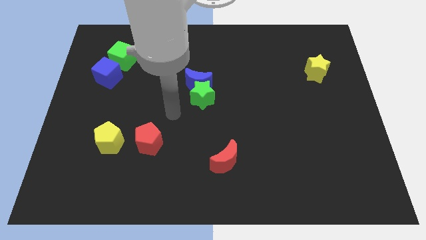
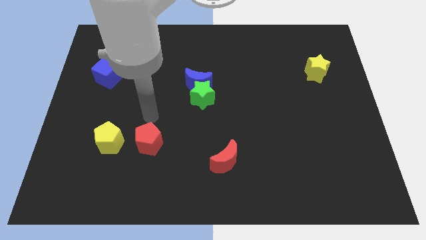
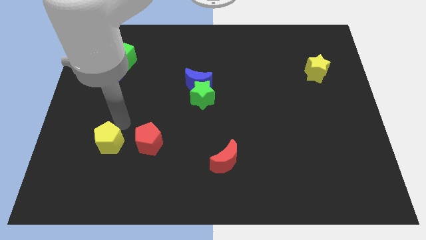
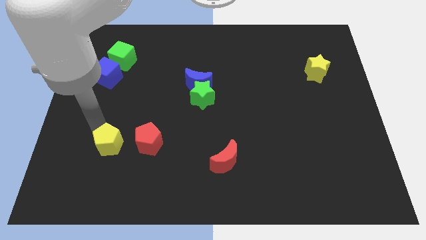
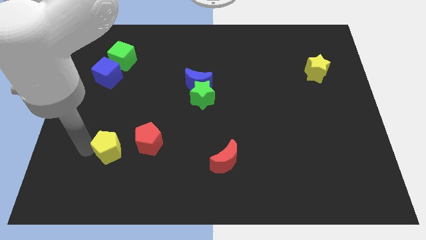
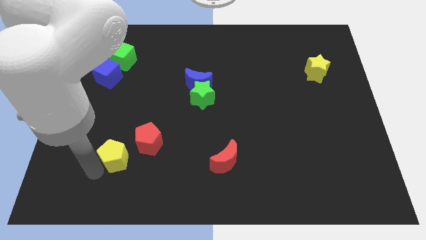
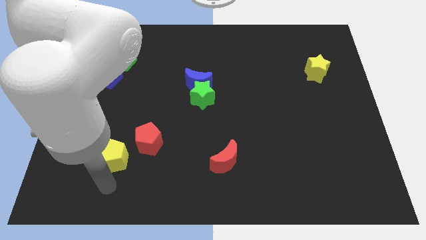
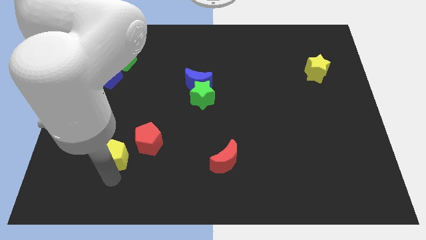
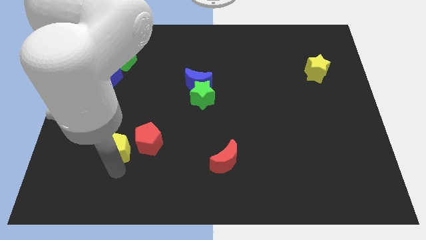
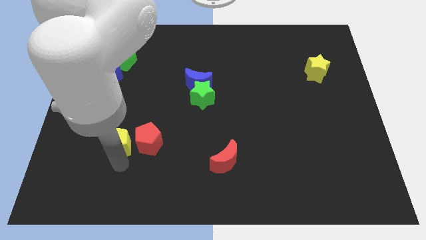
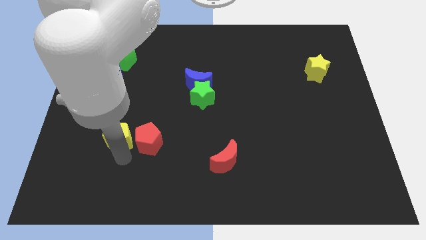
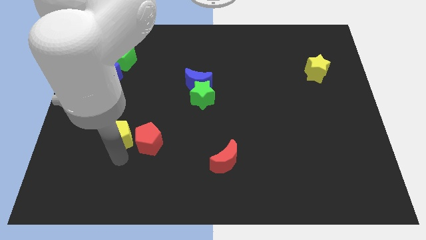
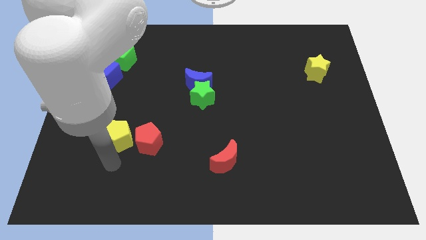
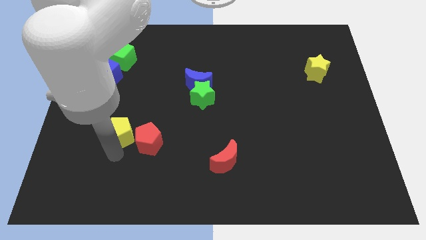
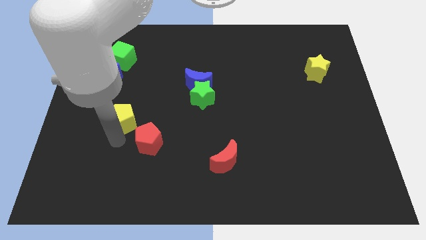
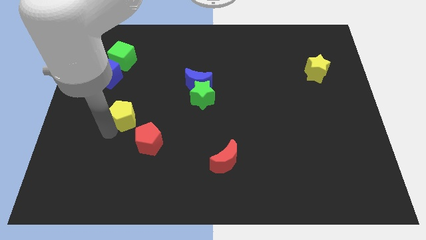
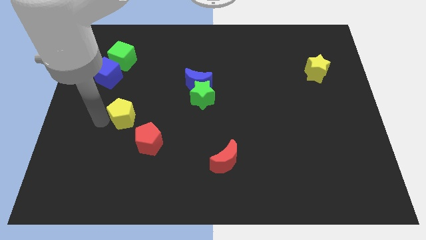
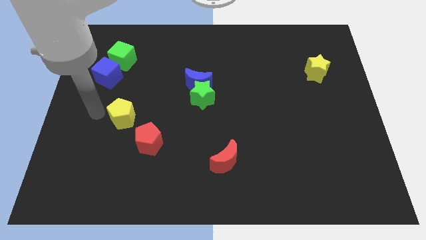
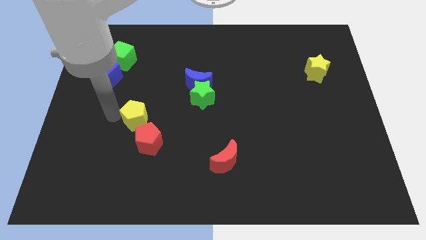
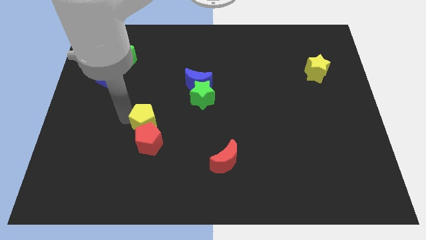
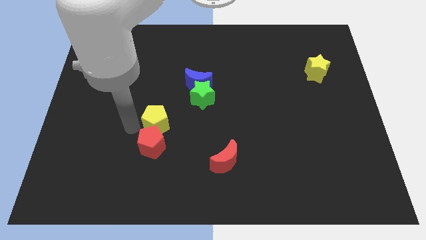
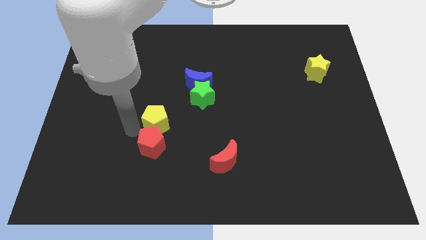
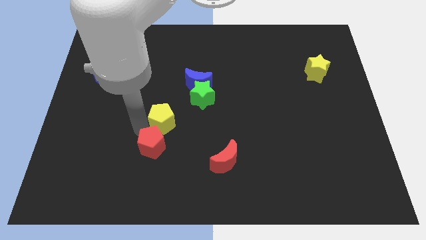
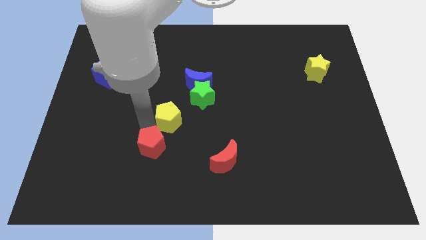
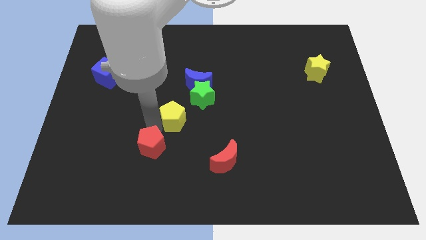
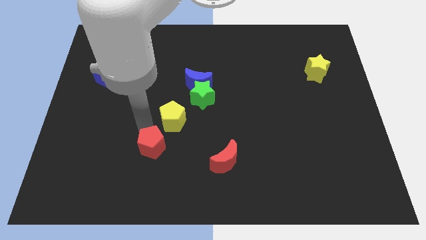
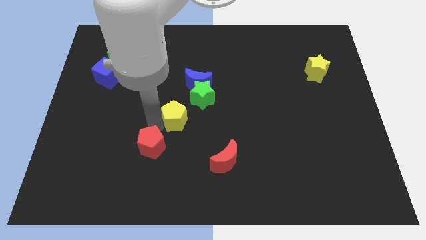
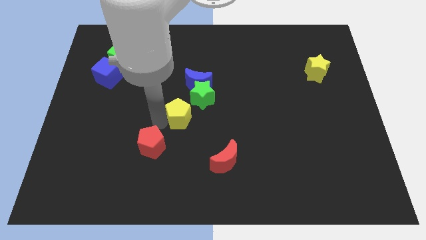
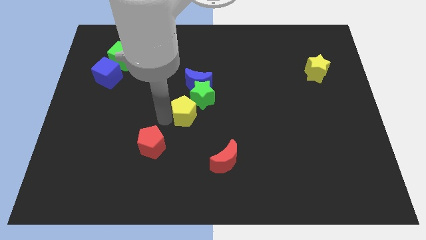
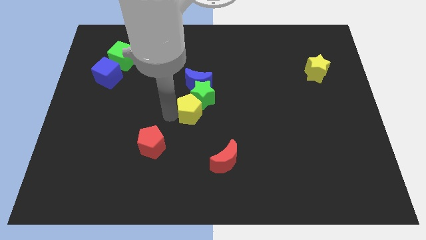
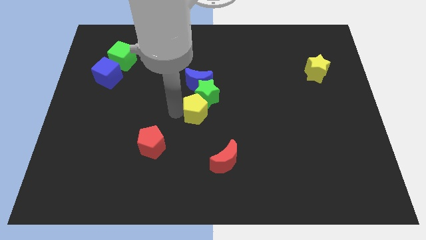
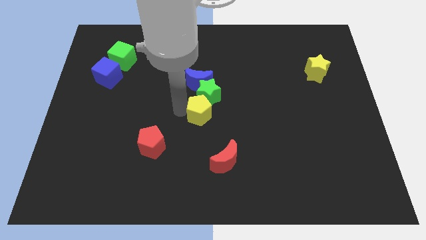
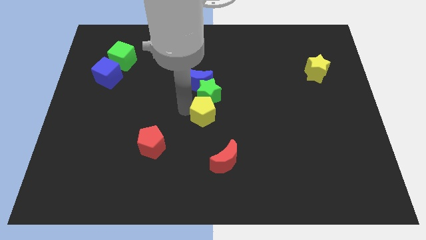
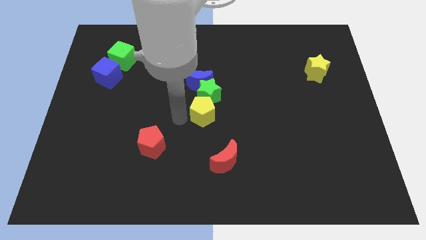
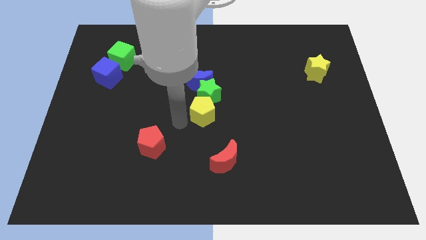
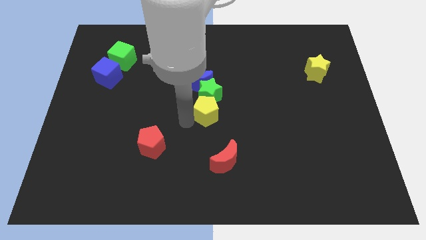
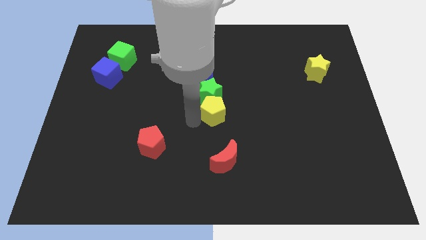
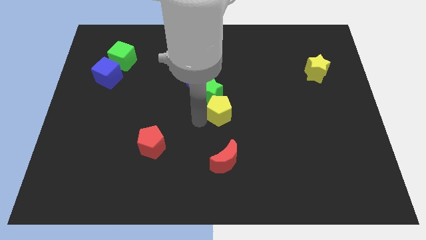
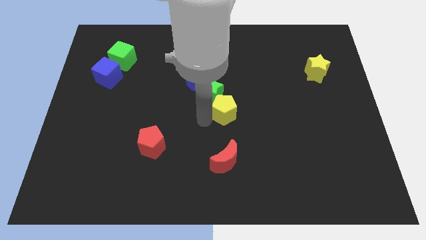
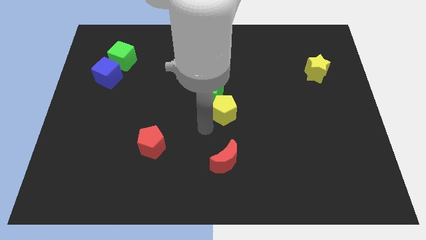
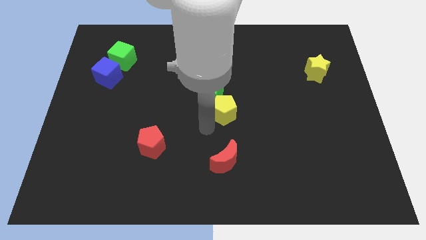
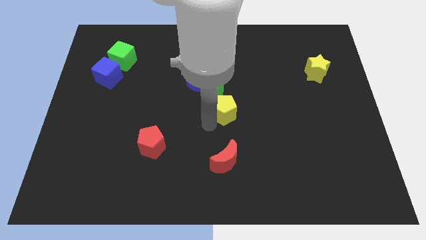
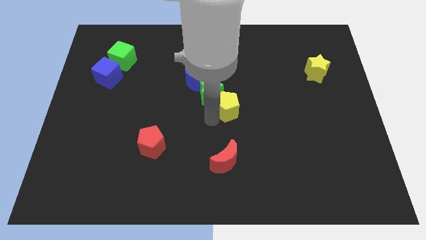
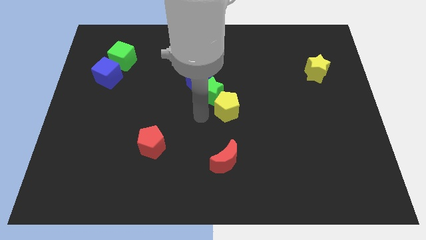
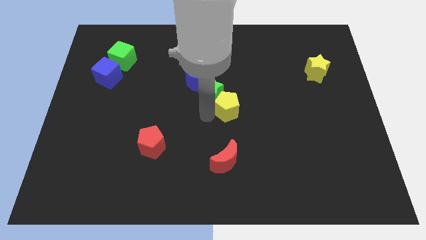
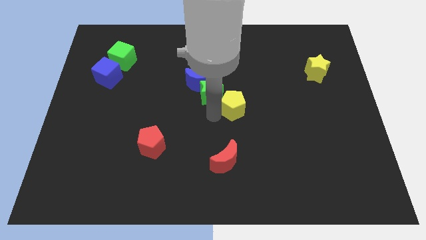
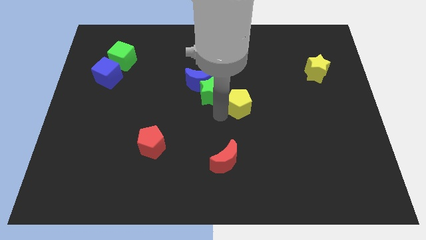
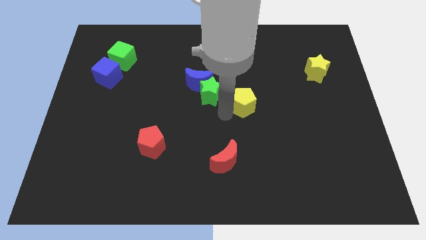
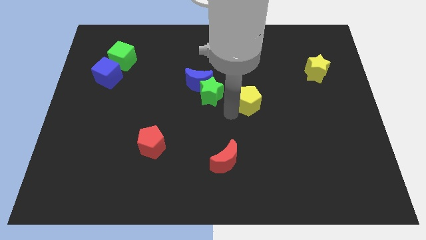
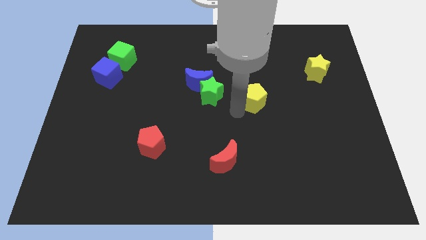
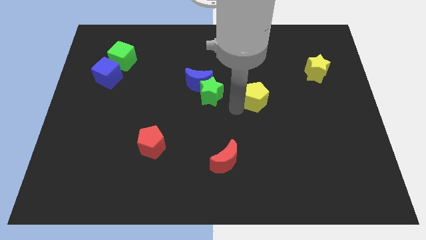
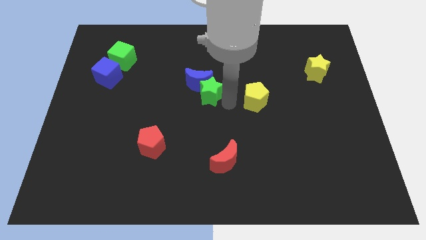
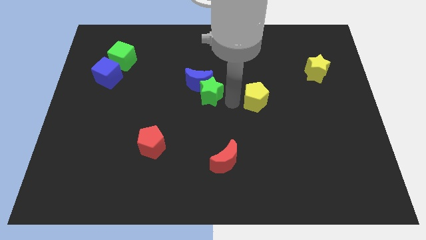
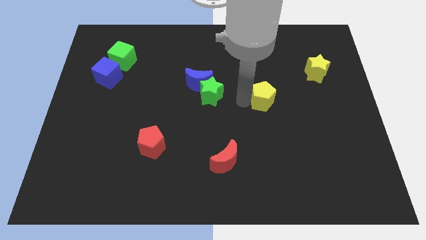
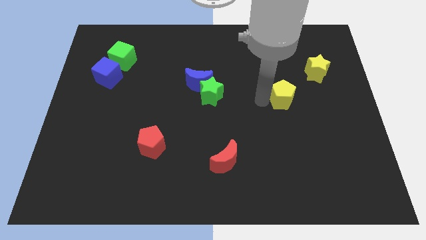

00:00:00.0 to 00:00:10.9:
move the yellow pentagon diagonally down and to the left of the yellow star

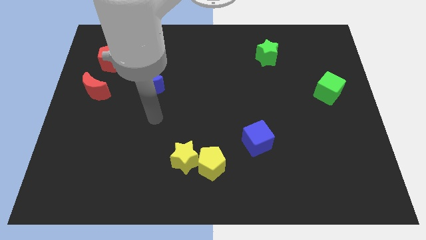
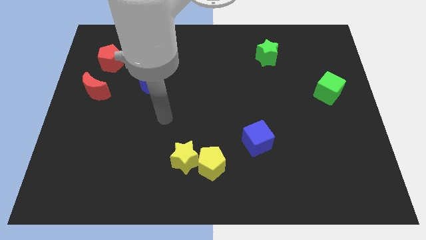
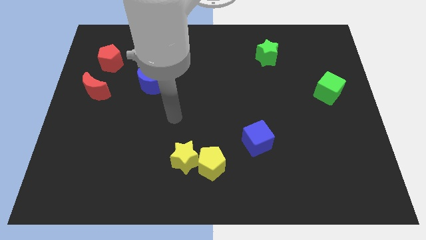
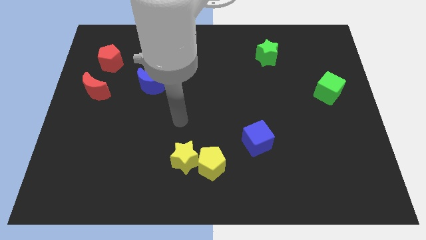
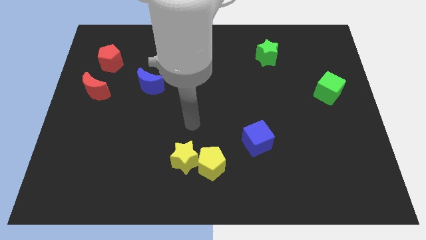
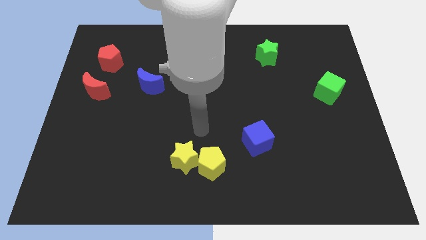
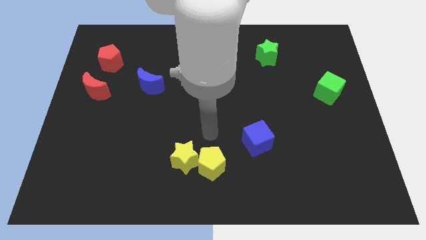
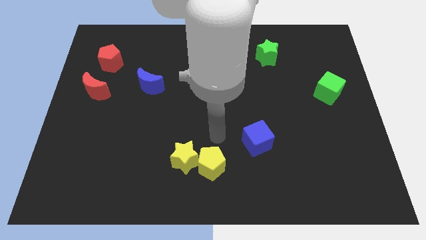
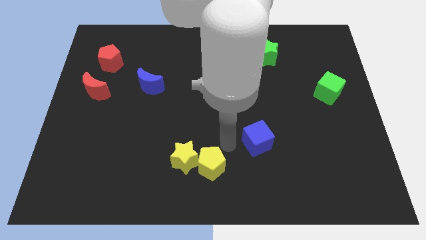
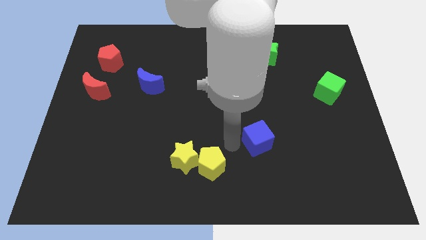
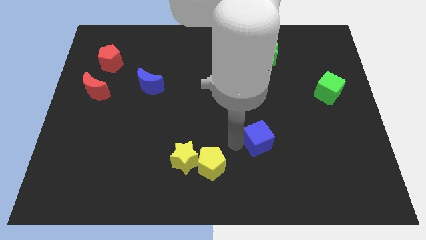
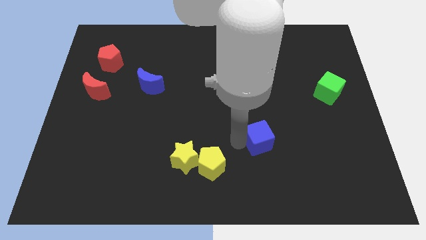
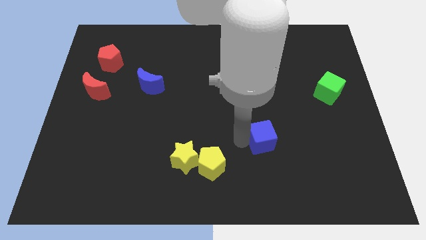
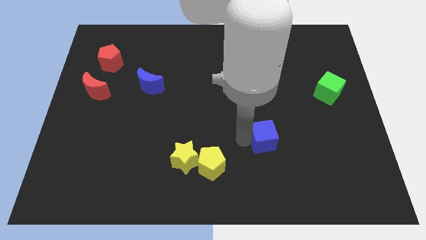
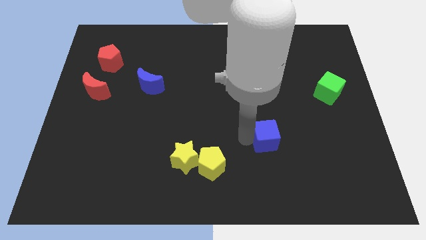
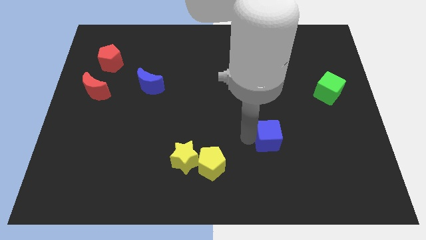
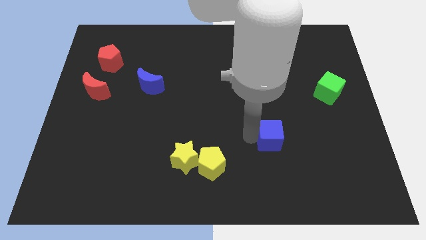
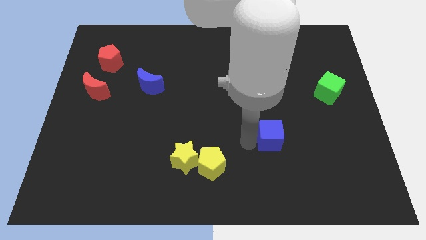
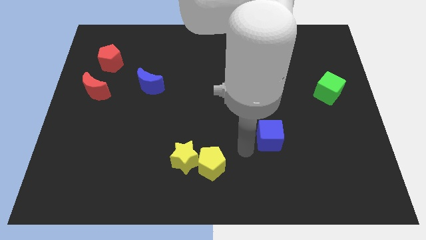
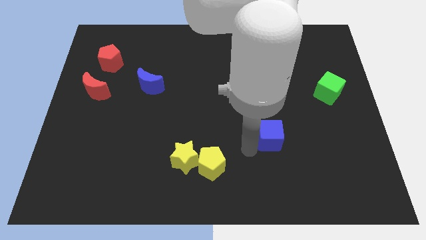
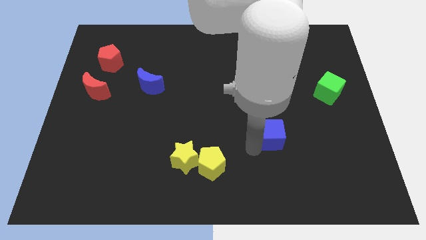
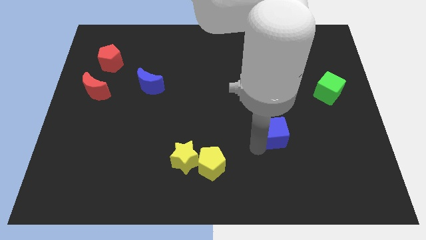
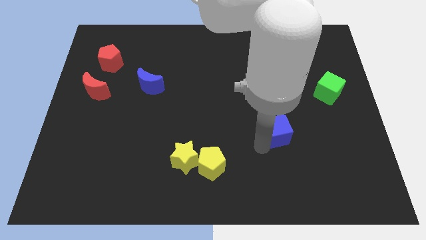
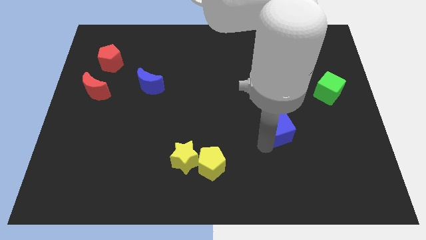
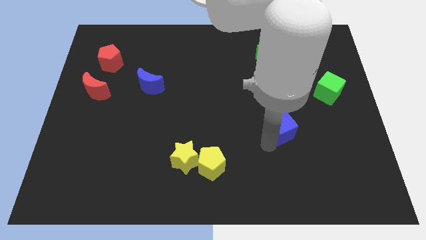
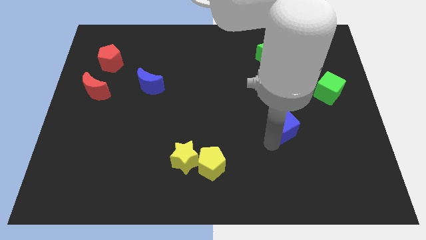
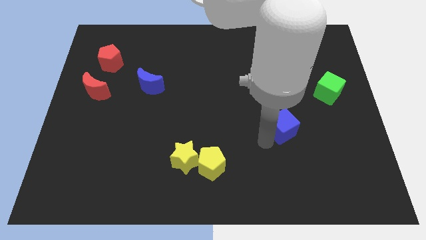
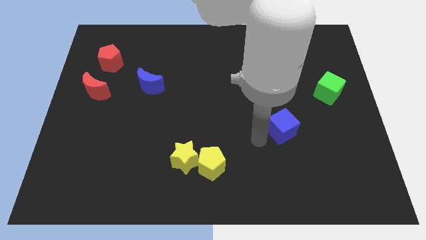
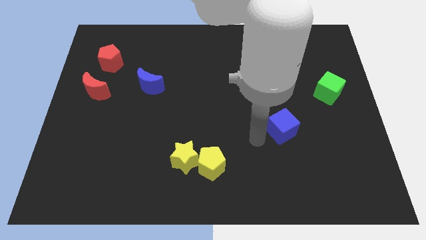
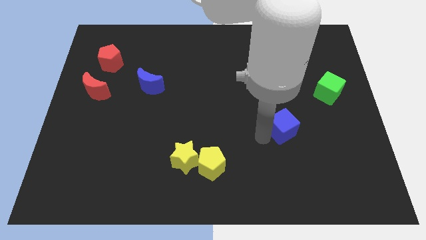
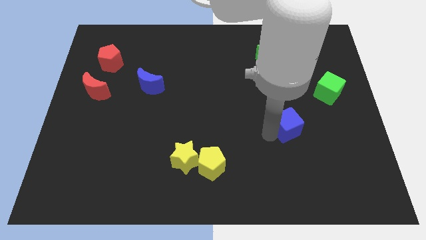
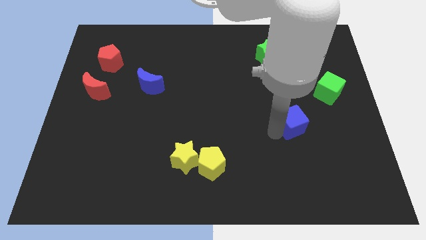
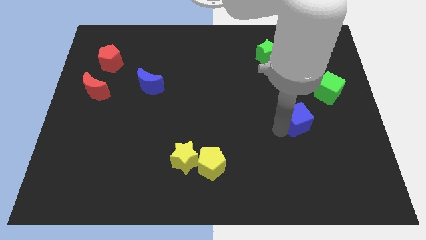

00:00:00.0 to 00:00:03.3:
push the blue cube to the bottom left side of the green cube
